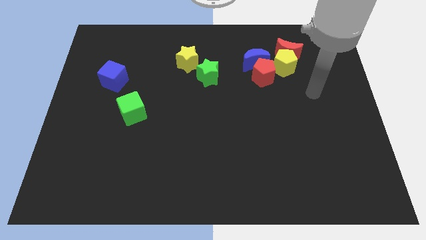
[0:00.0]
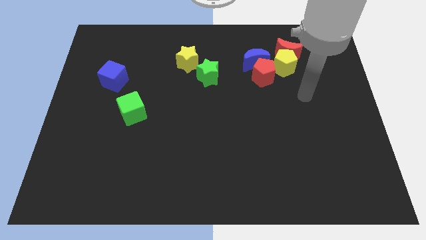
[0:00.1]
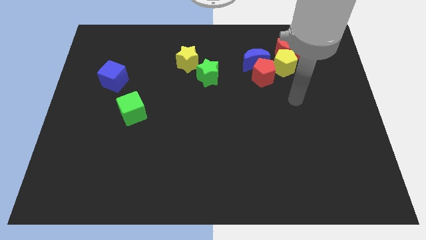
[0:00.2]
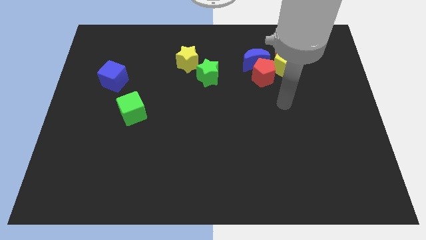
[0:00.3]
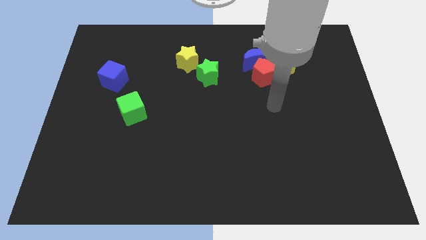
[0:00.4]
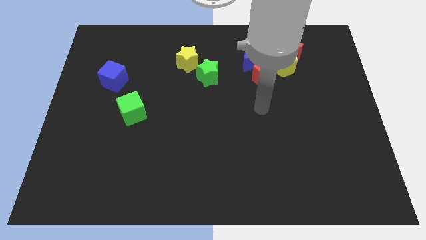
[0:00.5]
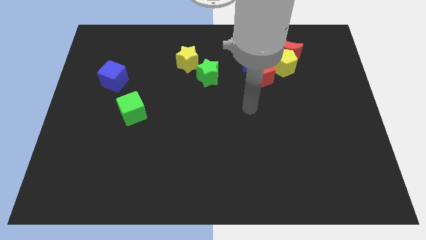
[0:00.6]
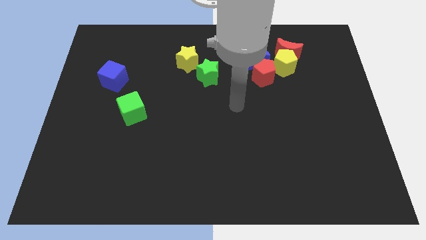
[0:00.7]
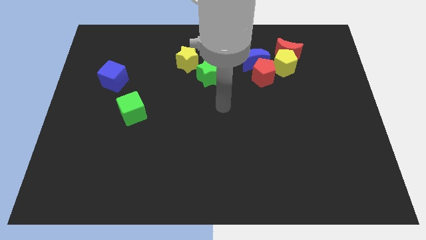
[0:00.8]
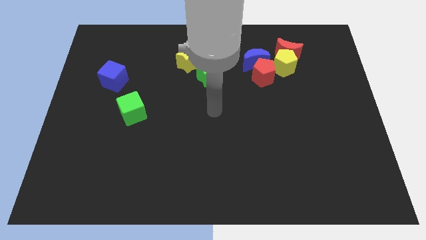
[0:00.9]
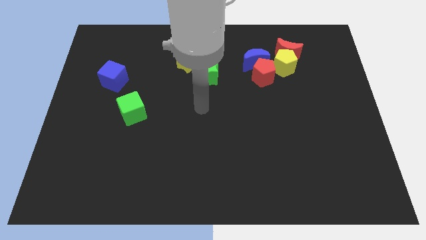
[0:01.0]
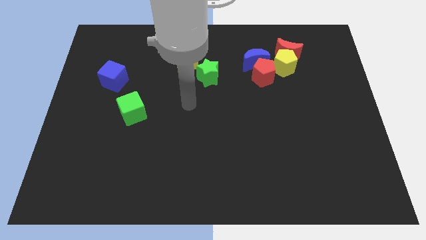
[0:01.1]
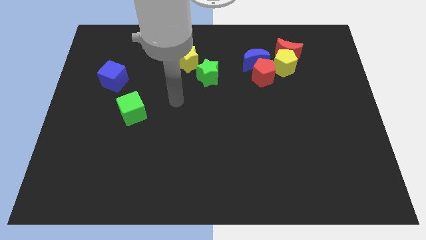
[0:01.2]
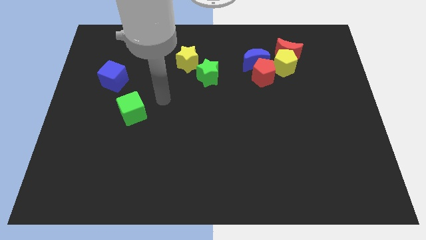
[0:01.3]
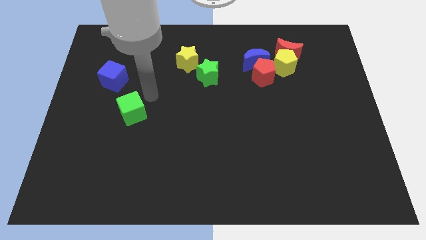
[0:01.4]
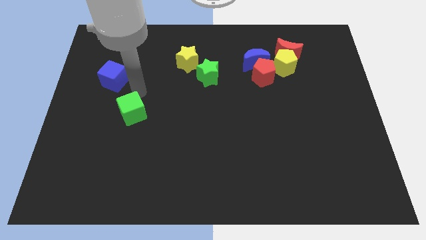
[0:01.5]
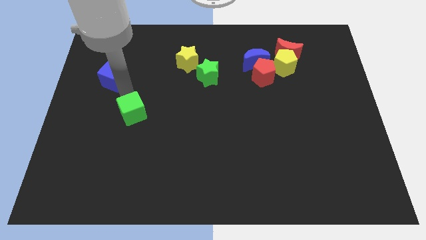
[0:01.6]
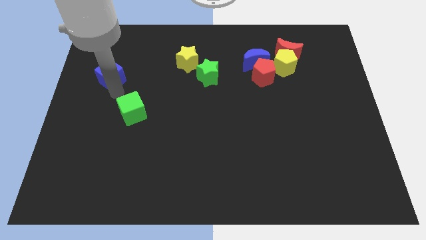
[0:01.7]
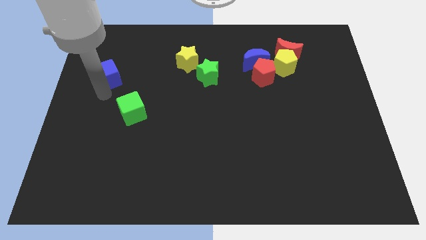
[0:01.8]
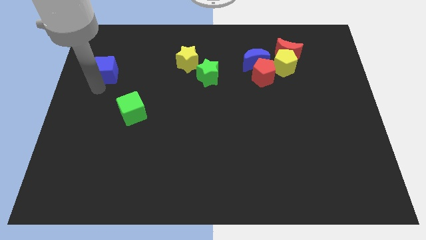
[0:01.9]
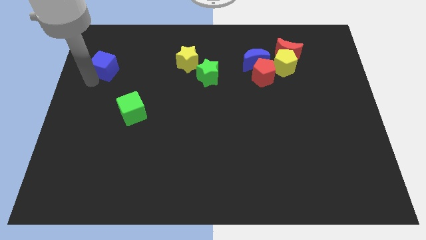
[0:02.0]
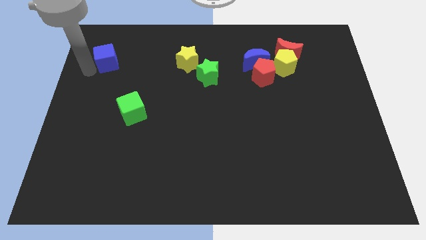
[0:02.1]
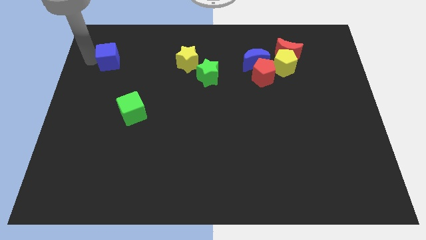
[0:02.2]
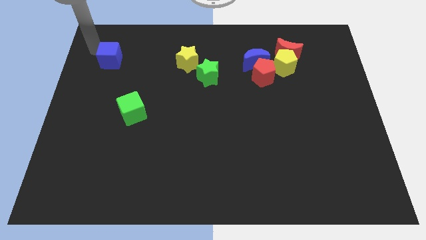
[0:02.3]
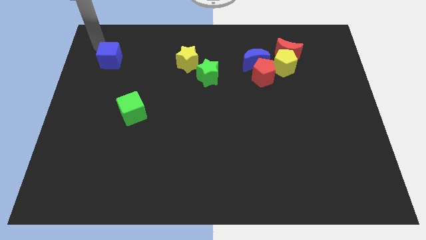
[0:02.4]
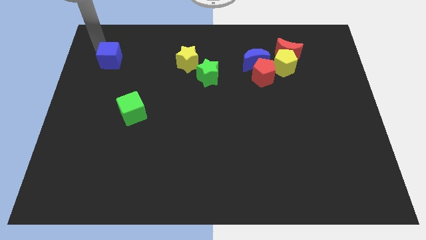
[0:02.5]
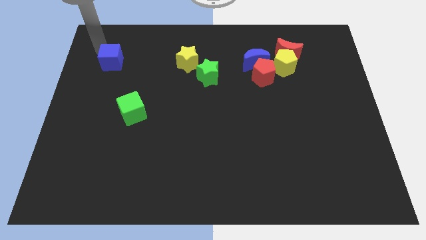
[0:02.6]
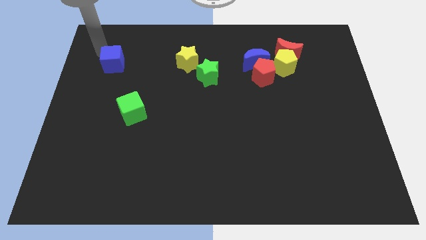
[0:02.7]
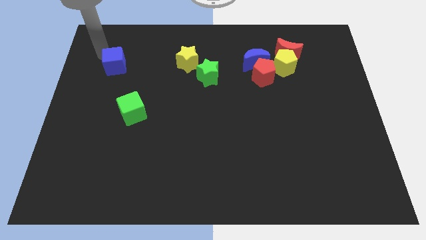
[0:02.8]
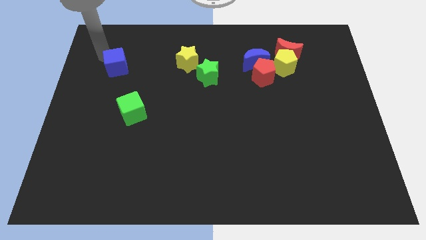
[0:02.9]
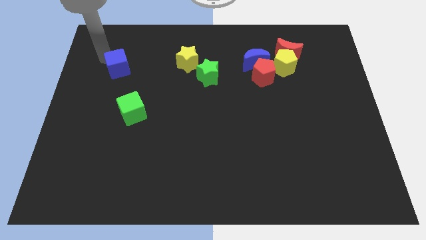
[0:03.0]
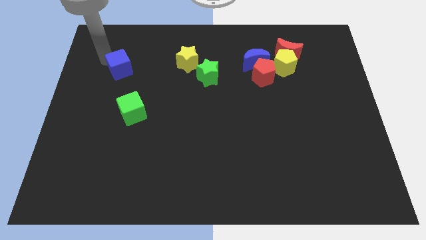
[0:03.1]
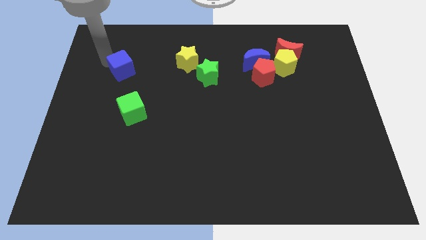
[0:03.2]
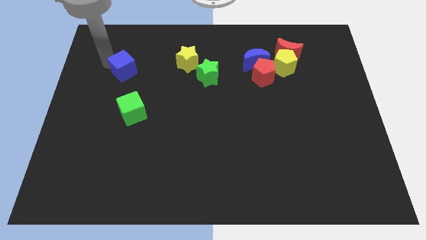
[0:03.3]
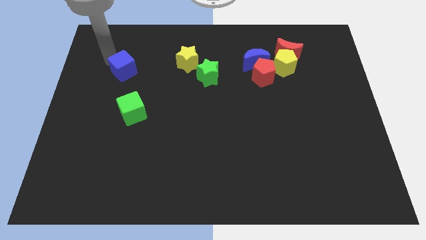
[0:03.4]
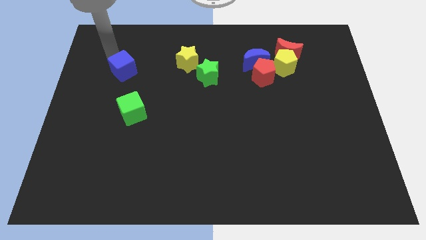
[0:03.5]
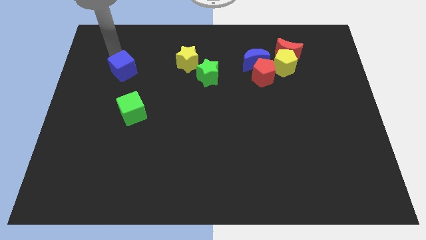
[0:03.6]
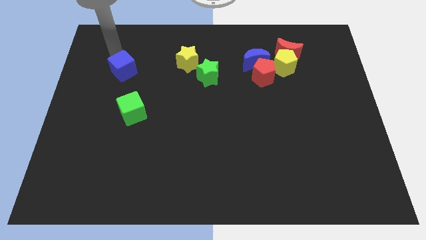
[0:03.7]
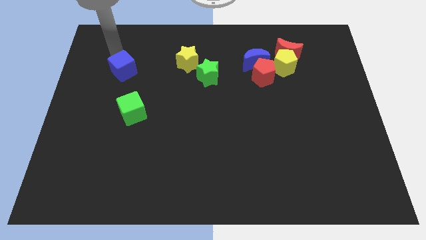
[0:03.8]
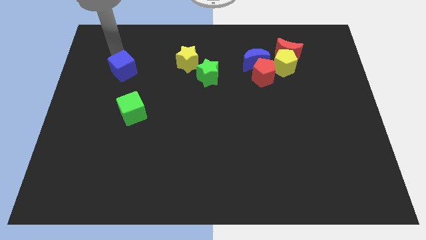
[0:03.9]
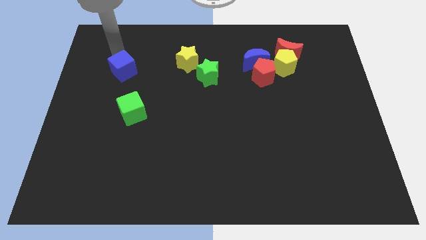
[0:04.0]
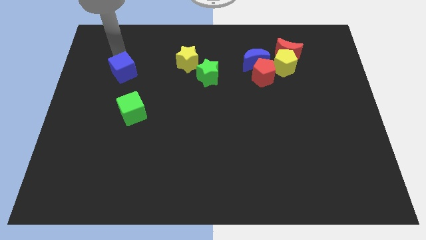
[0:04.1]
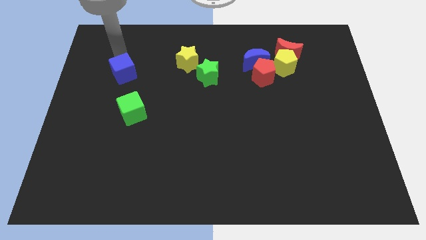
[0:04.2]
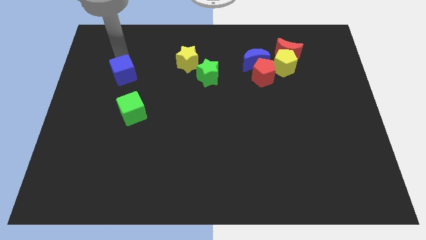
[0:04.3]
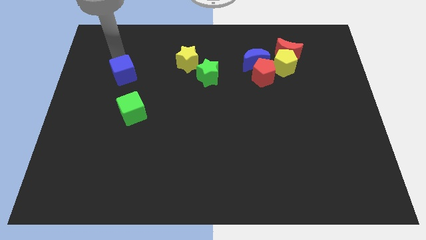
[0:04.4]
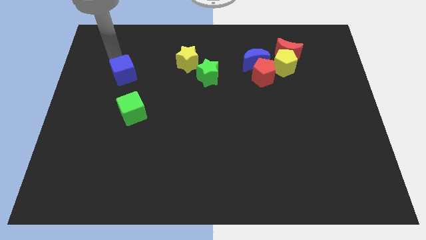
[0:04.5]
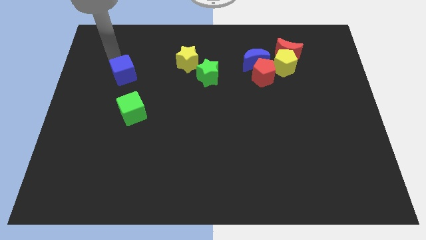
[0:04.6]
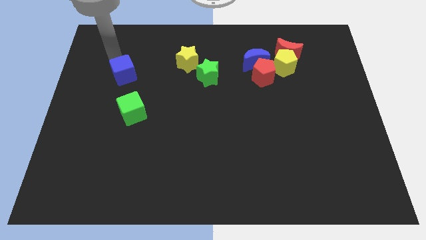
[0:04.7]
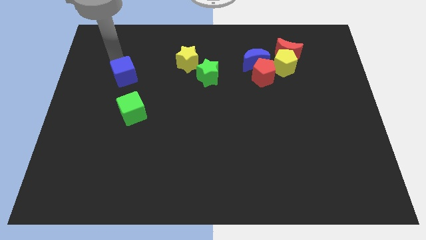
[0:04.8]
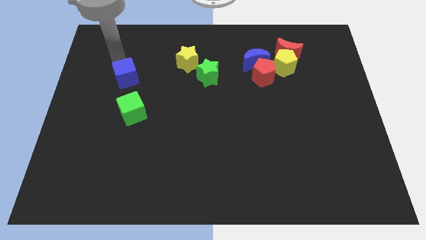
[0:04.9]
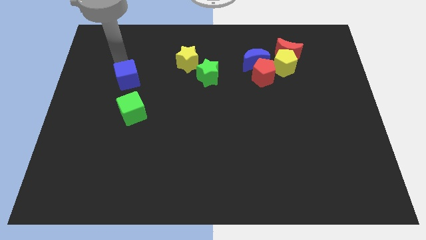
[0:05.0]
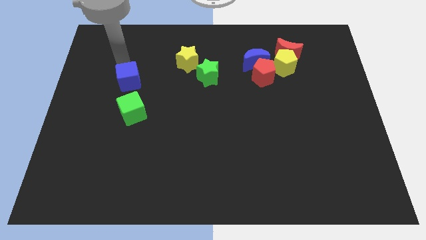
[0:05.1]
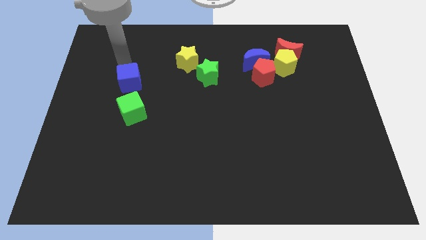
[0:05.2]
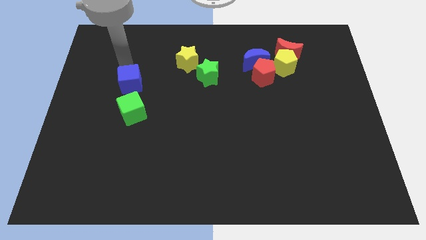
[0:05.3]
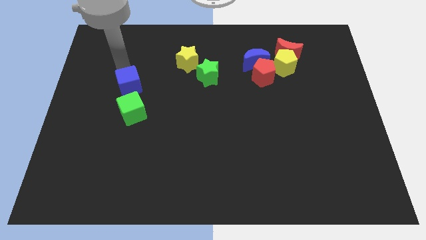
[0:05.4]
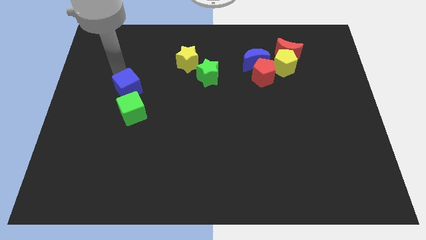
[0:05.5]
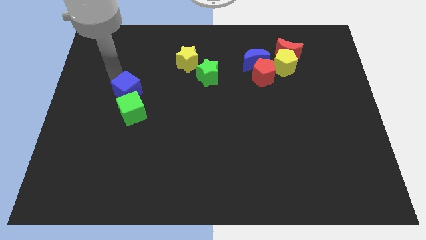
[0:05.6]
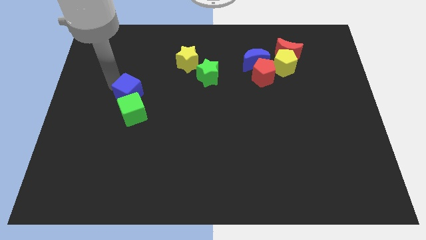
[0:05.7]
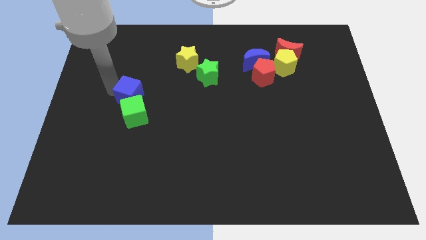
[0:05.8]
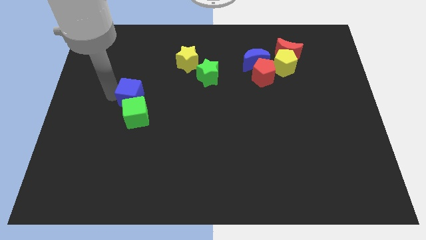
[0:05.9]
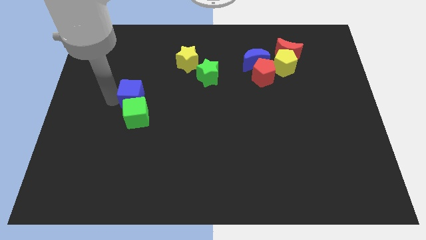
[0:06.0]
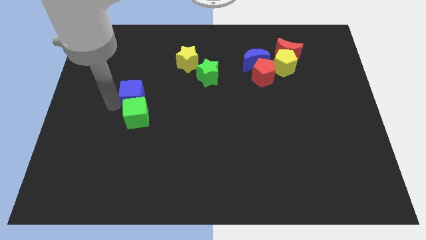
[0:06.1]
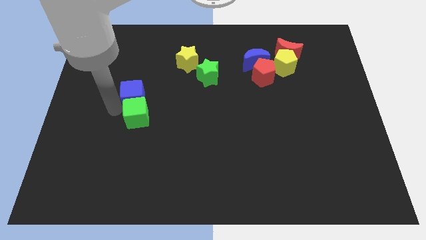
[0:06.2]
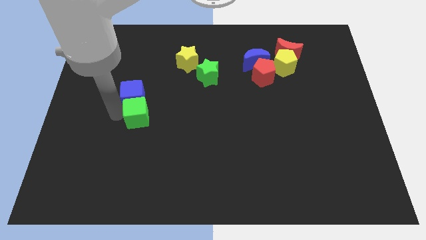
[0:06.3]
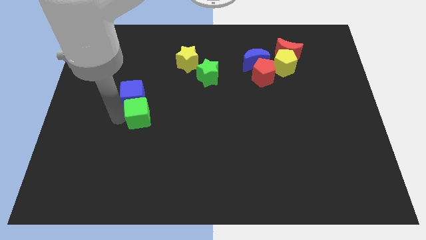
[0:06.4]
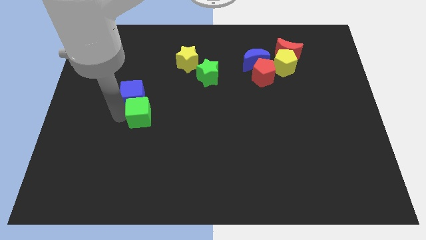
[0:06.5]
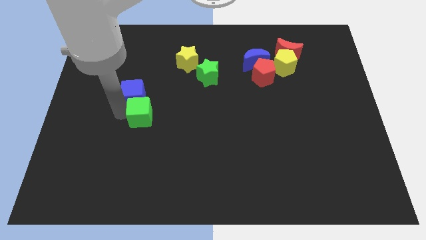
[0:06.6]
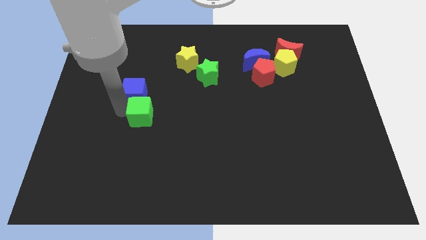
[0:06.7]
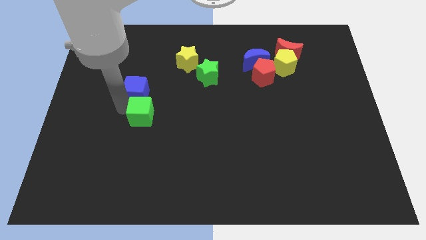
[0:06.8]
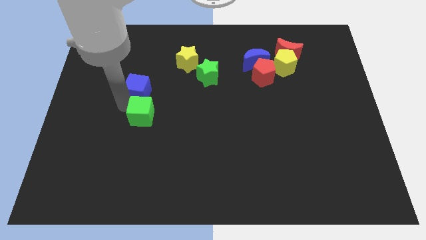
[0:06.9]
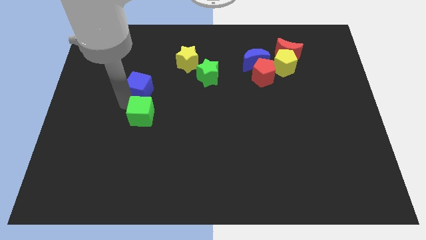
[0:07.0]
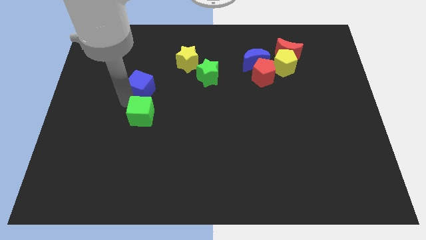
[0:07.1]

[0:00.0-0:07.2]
slide the blue cube a little to the right

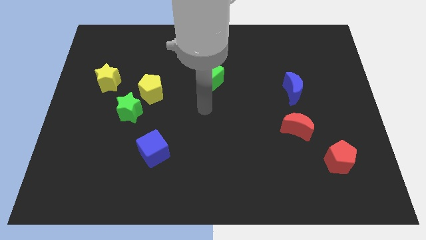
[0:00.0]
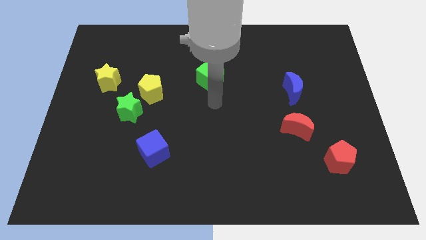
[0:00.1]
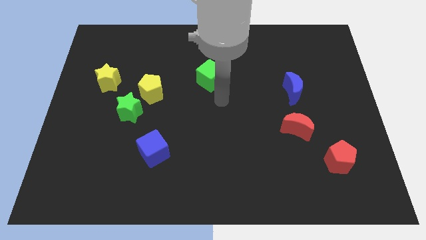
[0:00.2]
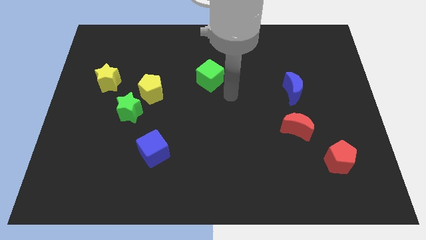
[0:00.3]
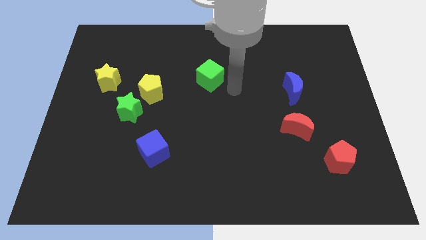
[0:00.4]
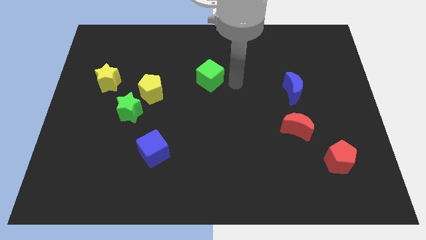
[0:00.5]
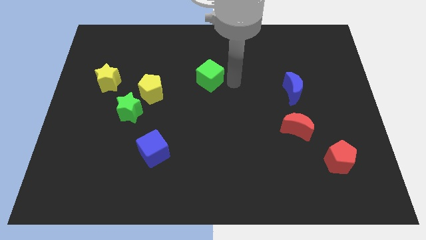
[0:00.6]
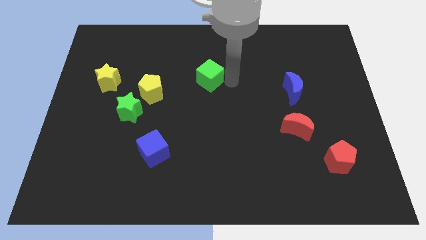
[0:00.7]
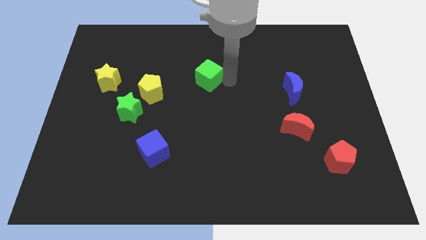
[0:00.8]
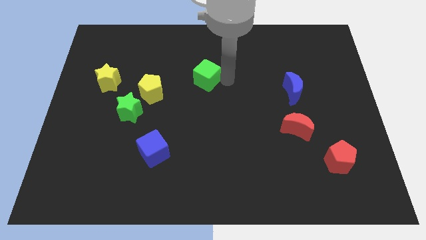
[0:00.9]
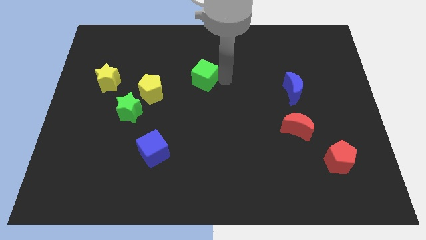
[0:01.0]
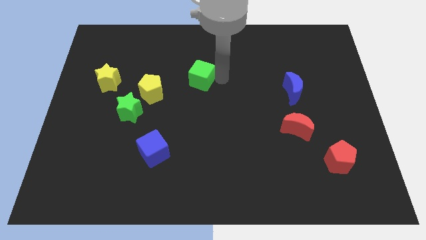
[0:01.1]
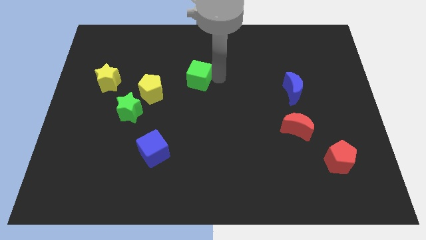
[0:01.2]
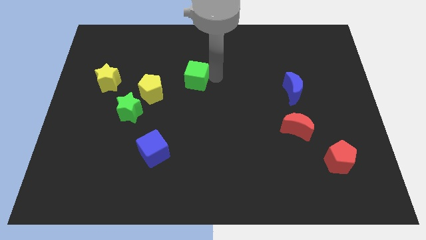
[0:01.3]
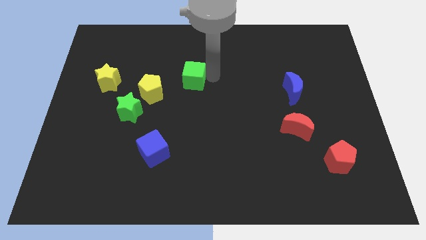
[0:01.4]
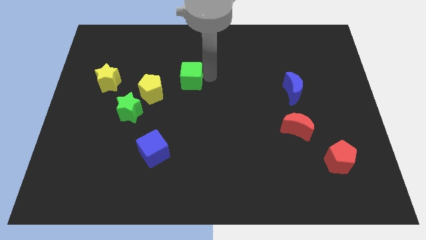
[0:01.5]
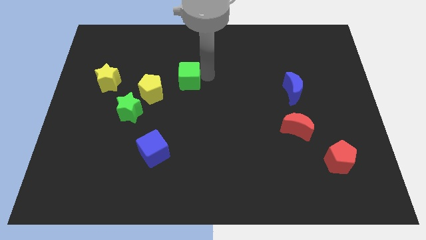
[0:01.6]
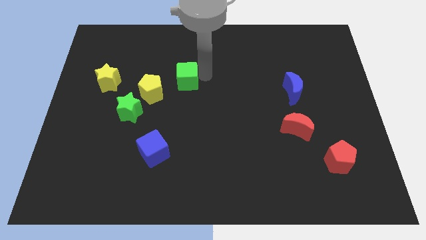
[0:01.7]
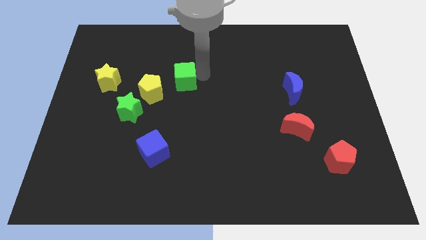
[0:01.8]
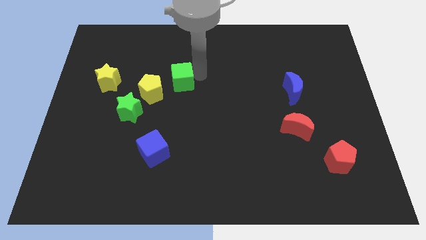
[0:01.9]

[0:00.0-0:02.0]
push the green cube a little left
